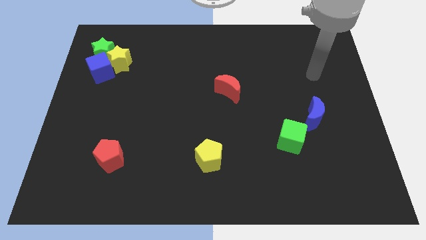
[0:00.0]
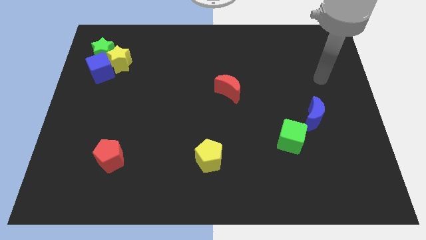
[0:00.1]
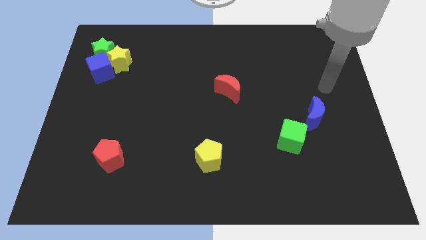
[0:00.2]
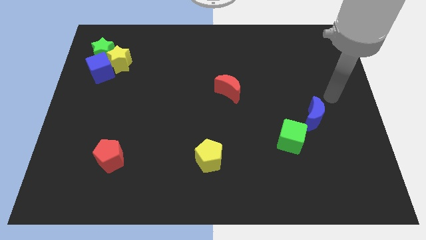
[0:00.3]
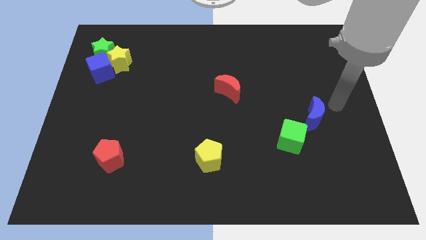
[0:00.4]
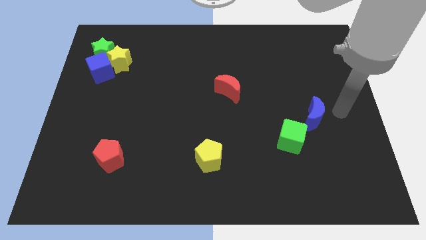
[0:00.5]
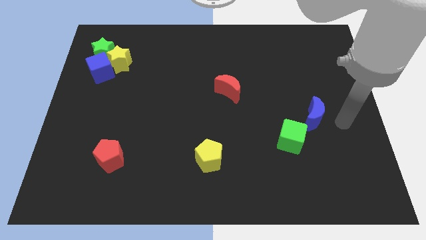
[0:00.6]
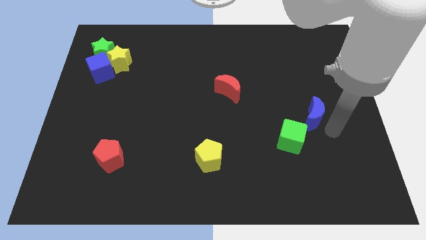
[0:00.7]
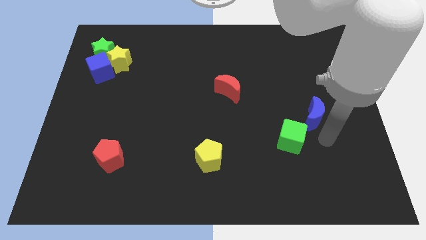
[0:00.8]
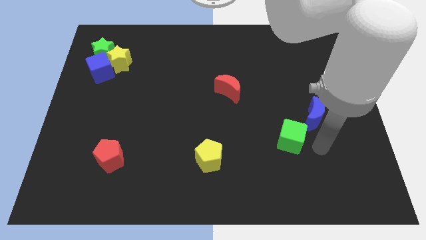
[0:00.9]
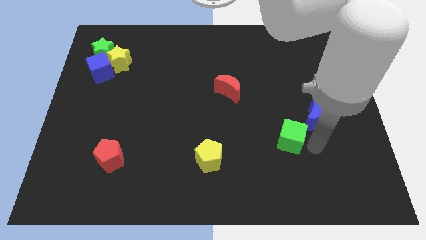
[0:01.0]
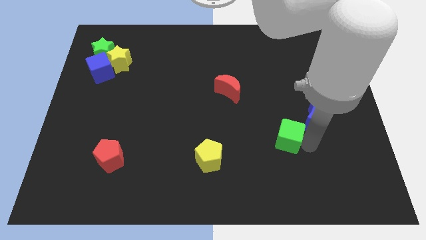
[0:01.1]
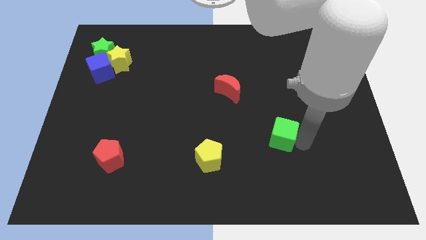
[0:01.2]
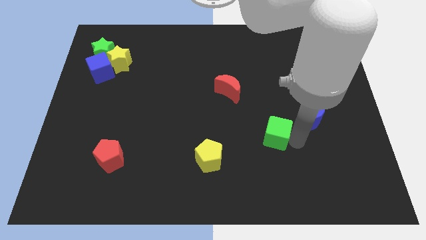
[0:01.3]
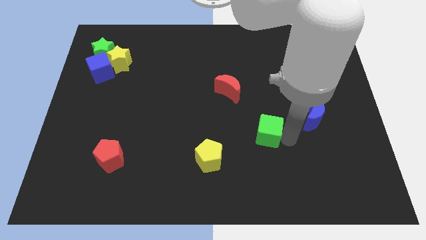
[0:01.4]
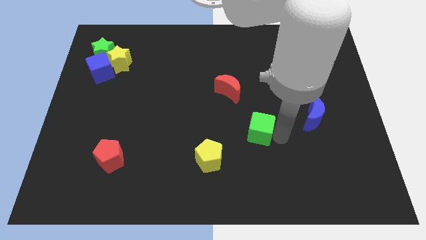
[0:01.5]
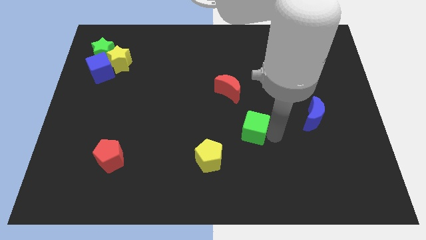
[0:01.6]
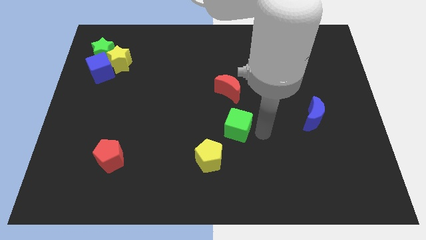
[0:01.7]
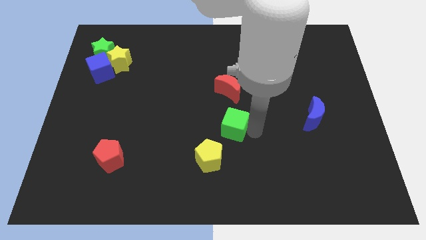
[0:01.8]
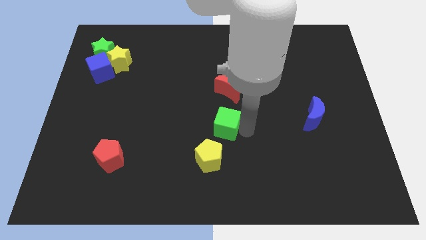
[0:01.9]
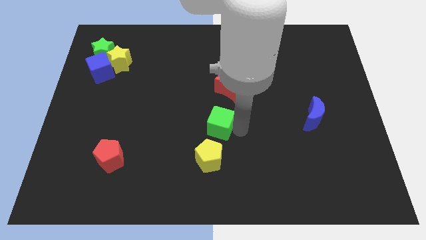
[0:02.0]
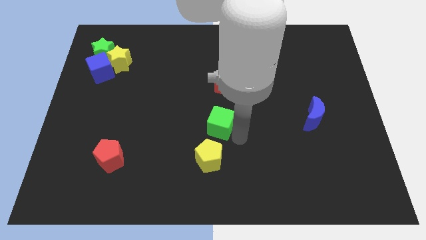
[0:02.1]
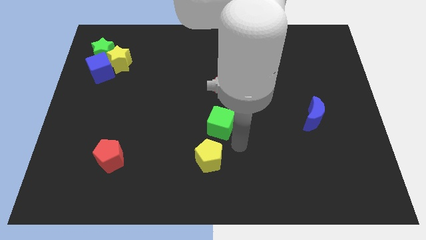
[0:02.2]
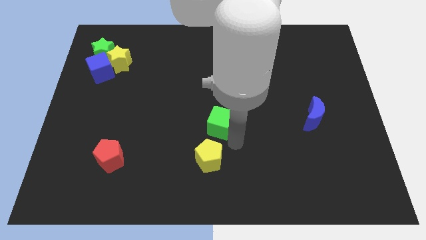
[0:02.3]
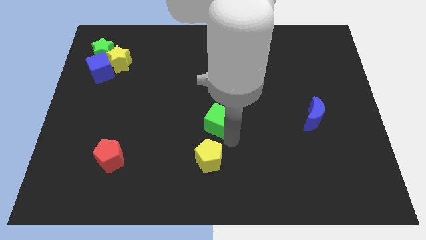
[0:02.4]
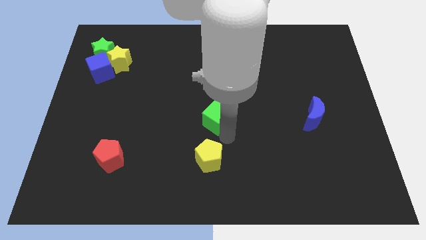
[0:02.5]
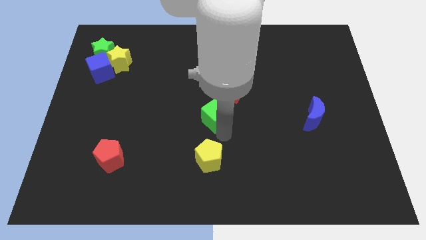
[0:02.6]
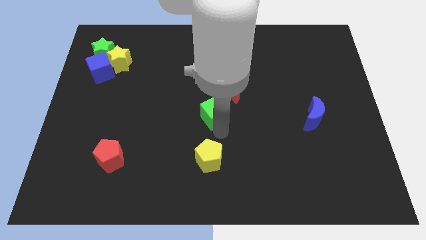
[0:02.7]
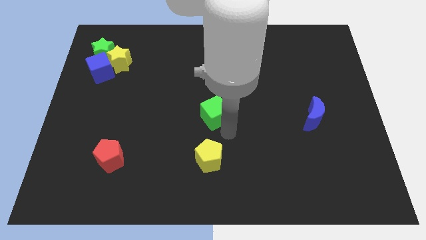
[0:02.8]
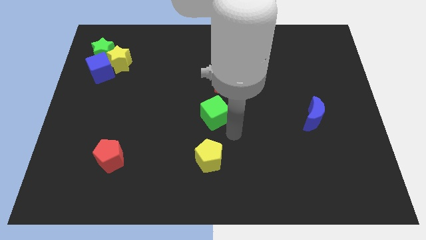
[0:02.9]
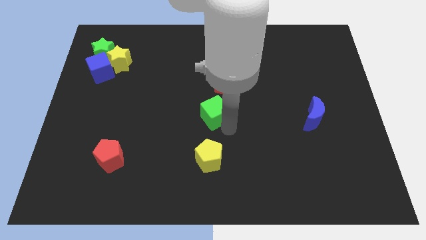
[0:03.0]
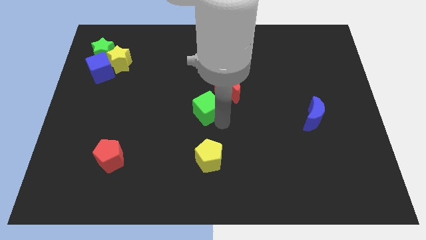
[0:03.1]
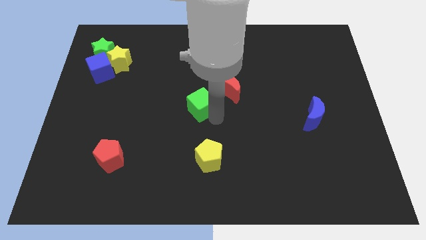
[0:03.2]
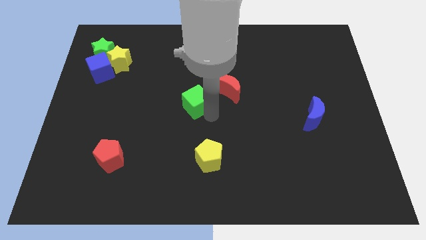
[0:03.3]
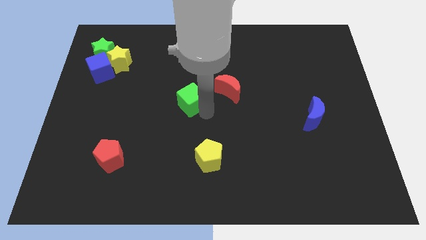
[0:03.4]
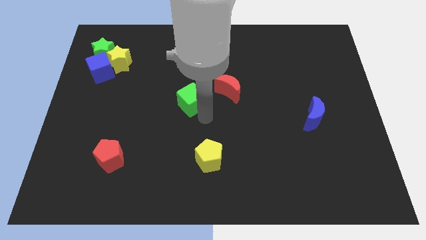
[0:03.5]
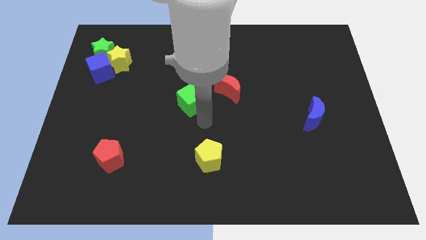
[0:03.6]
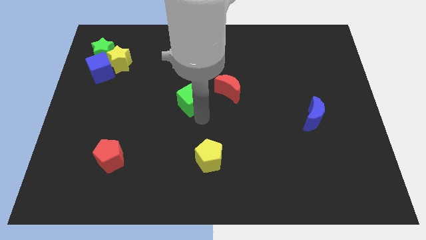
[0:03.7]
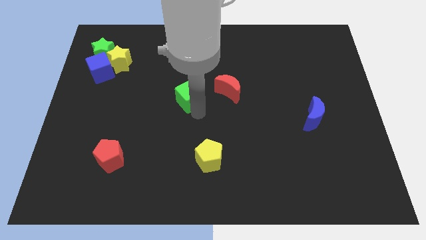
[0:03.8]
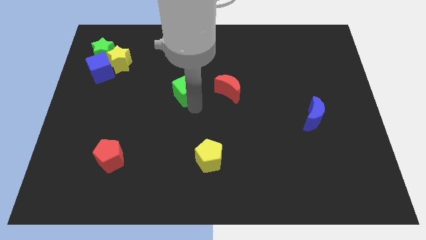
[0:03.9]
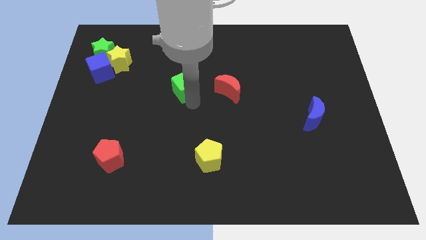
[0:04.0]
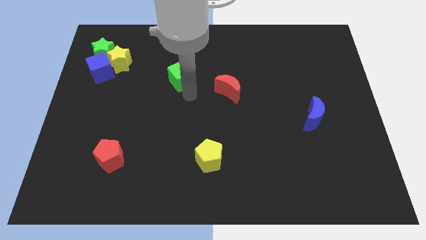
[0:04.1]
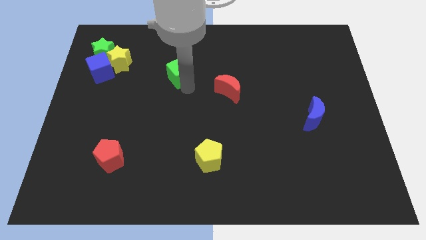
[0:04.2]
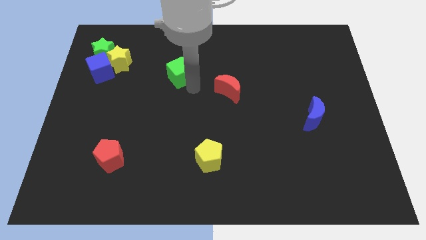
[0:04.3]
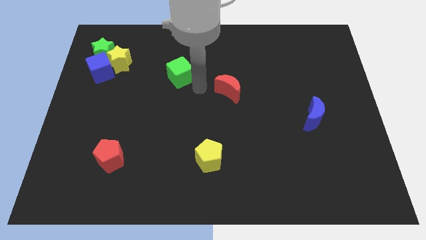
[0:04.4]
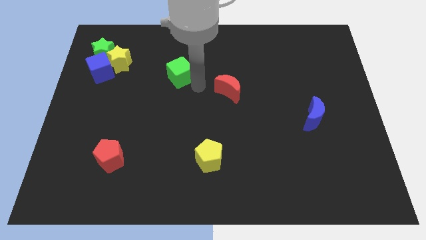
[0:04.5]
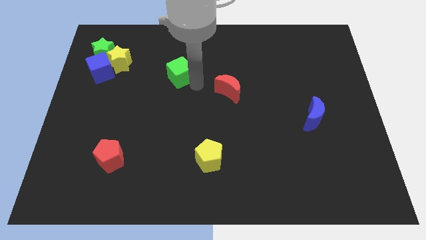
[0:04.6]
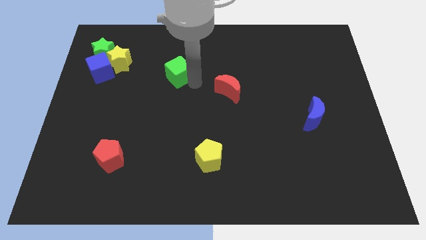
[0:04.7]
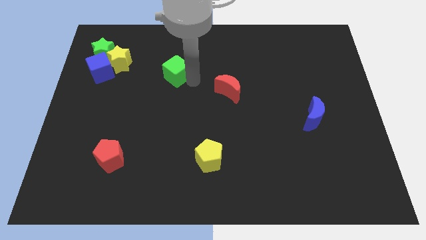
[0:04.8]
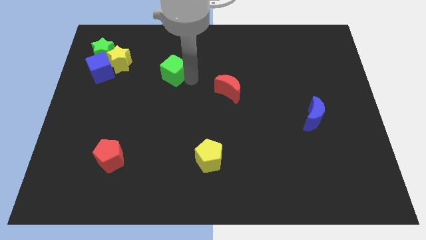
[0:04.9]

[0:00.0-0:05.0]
put the green cube to the right of the yellow star

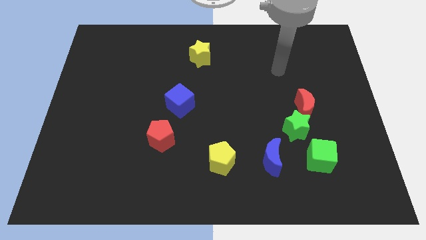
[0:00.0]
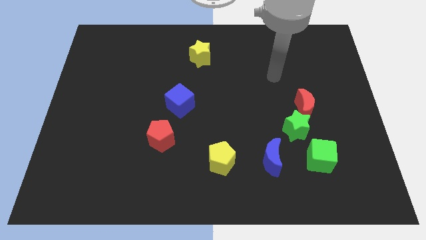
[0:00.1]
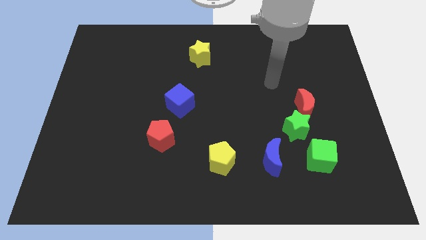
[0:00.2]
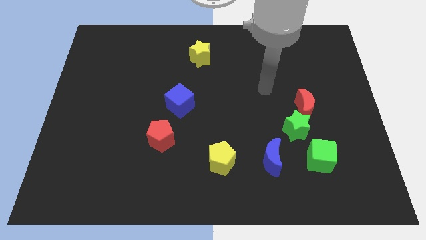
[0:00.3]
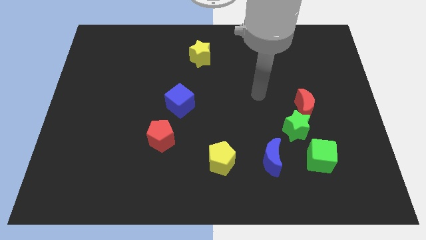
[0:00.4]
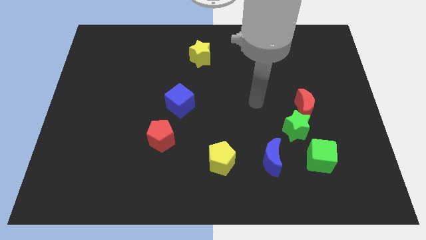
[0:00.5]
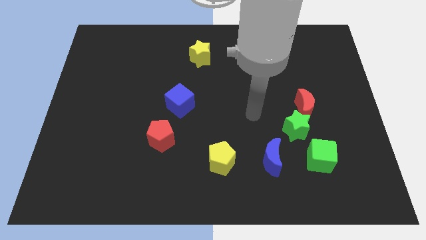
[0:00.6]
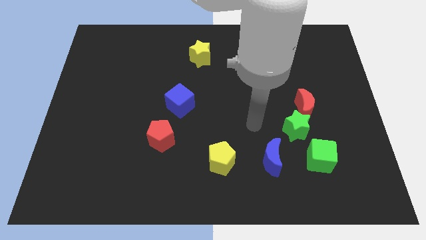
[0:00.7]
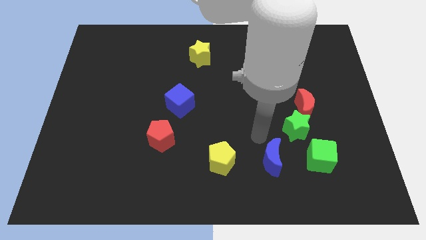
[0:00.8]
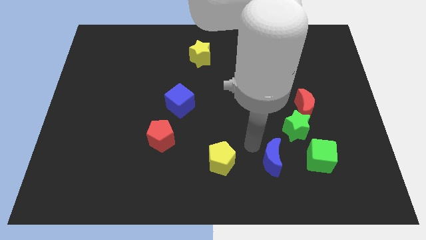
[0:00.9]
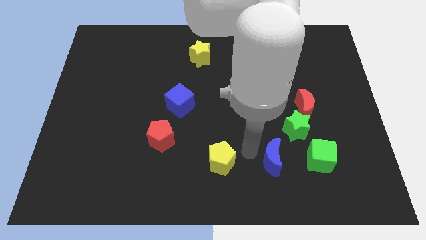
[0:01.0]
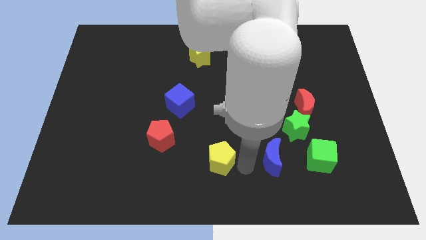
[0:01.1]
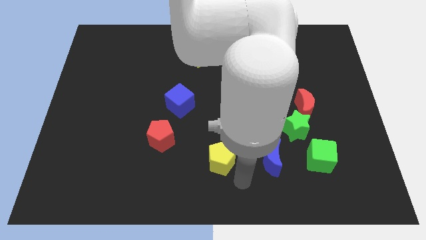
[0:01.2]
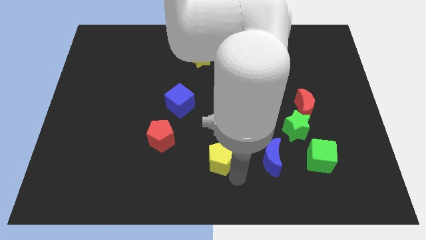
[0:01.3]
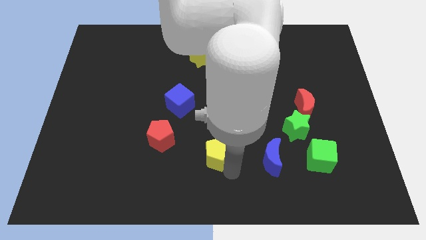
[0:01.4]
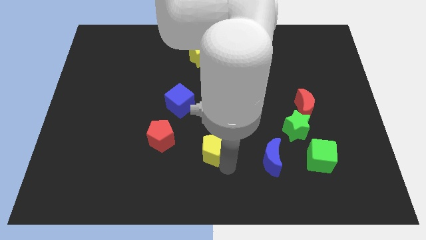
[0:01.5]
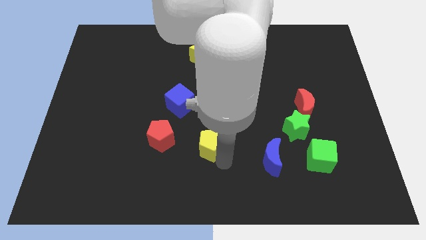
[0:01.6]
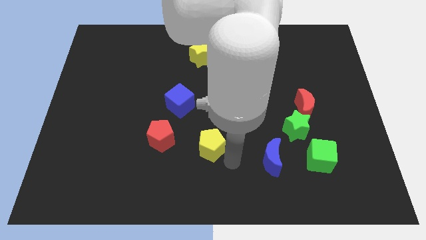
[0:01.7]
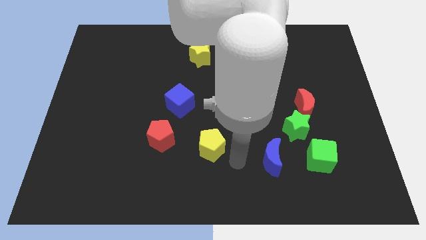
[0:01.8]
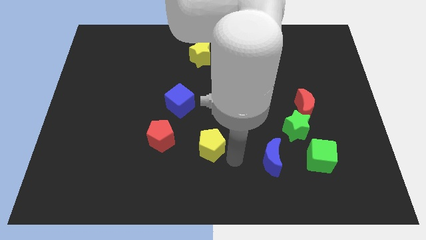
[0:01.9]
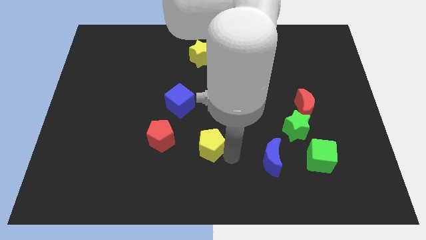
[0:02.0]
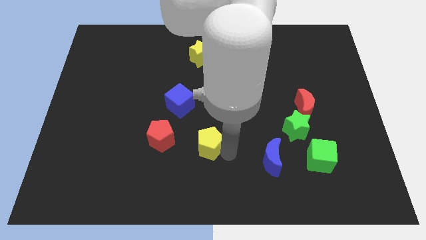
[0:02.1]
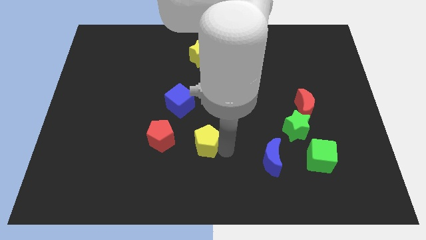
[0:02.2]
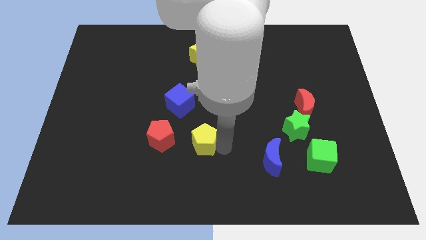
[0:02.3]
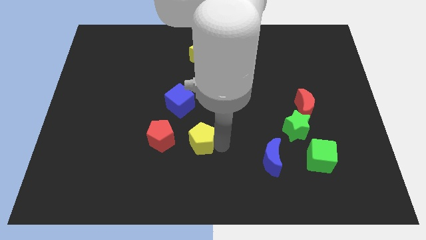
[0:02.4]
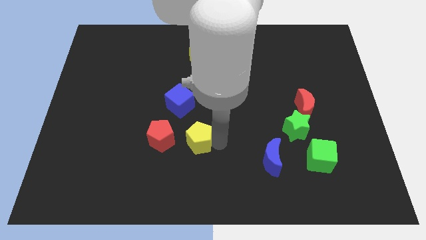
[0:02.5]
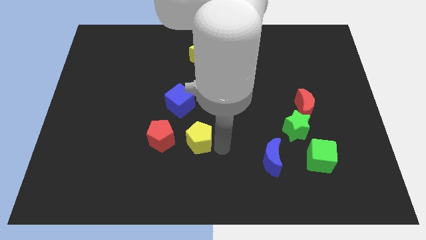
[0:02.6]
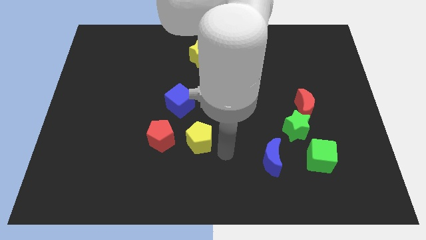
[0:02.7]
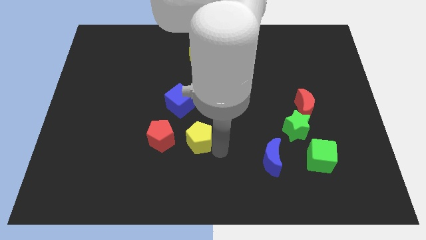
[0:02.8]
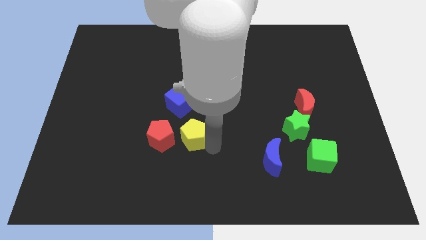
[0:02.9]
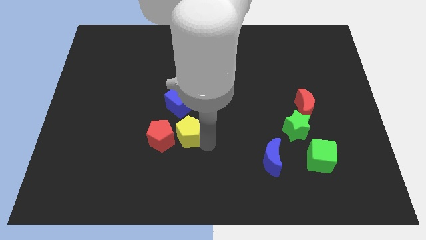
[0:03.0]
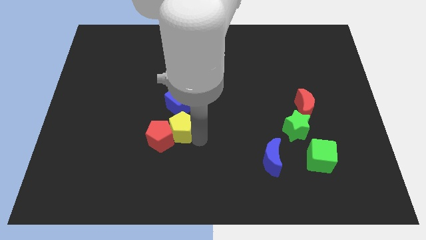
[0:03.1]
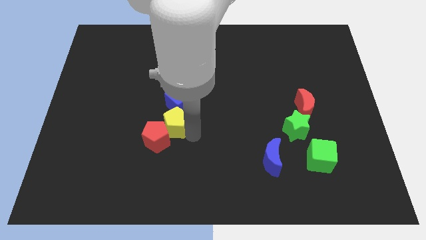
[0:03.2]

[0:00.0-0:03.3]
push the yellow pentagon to the bottom left side of the blue cube
